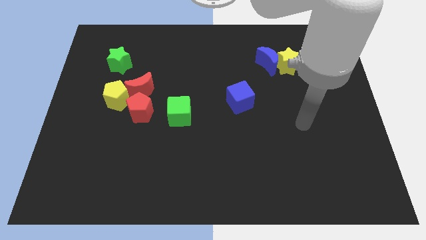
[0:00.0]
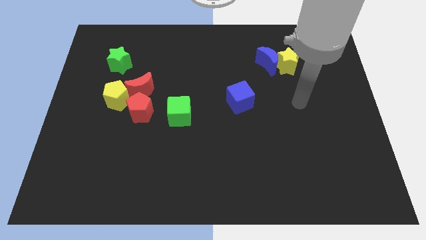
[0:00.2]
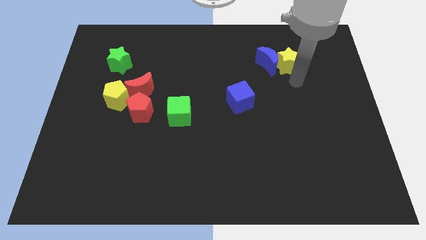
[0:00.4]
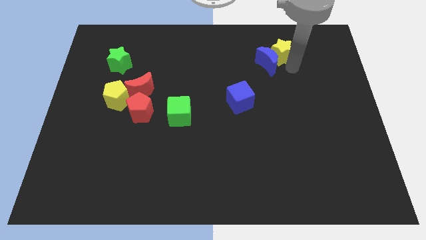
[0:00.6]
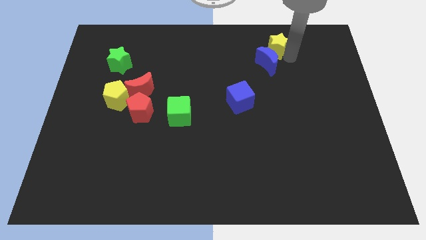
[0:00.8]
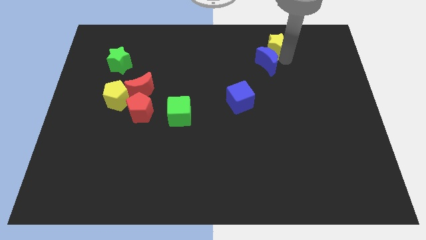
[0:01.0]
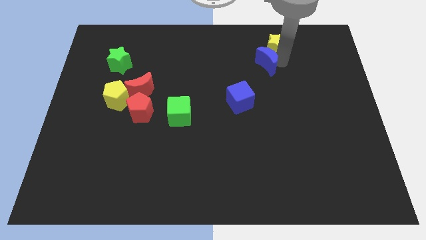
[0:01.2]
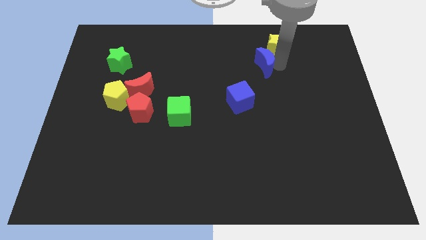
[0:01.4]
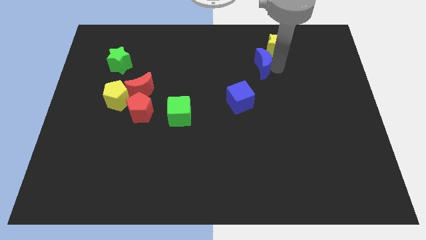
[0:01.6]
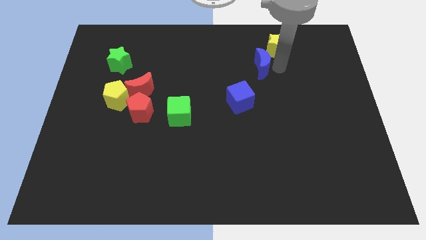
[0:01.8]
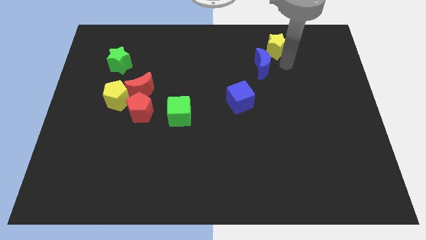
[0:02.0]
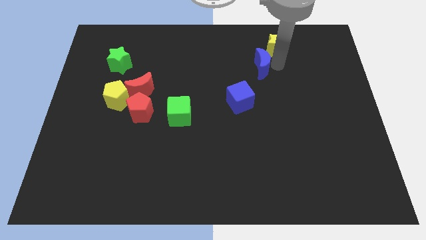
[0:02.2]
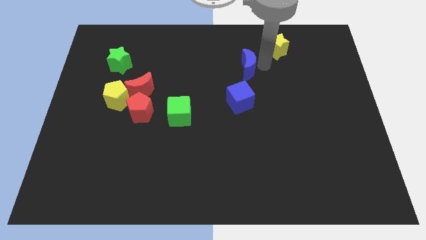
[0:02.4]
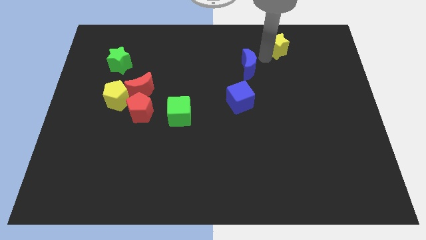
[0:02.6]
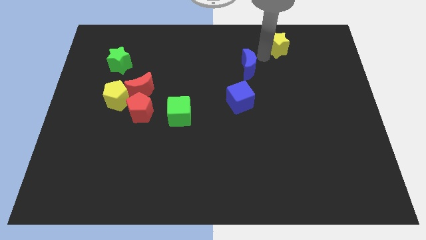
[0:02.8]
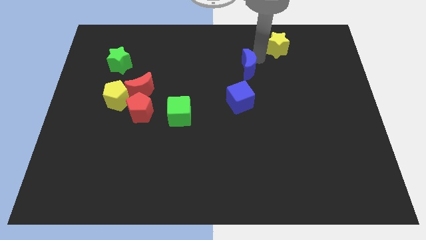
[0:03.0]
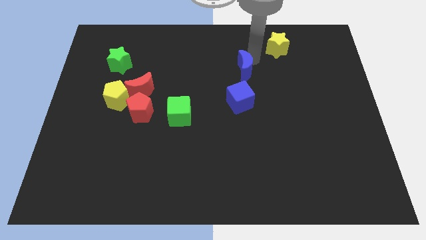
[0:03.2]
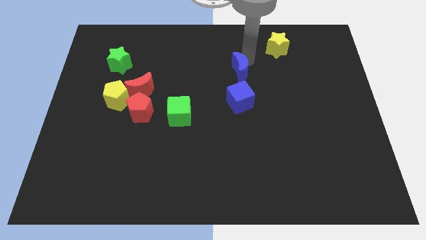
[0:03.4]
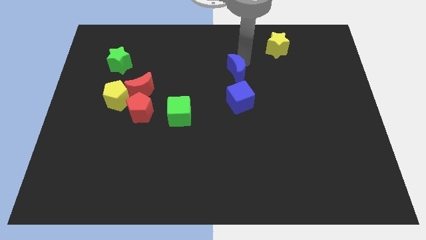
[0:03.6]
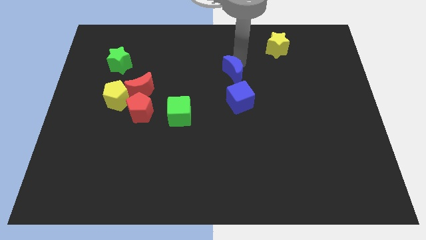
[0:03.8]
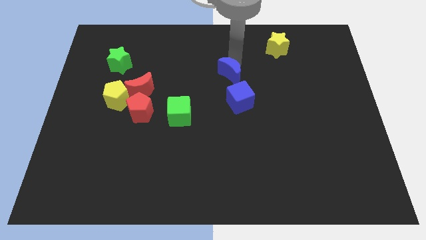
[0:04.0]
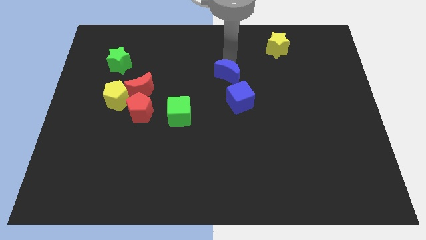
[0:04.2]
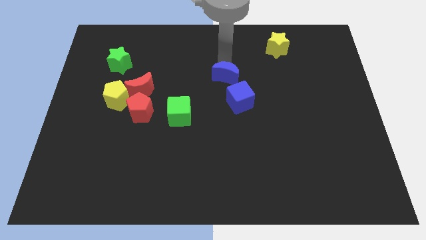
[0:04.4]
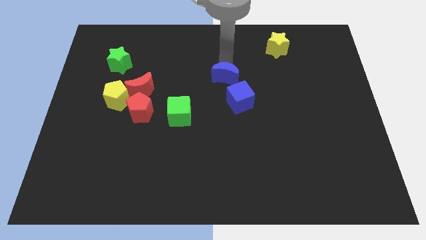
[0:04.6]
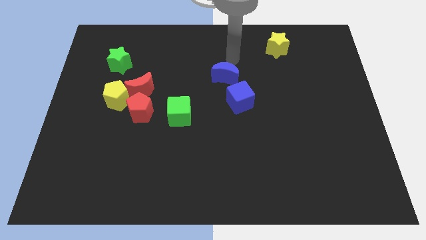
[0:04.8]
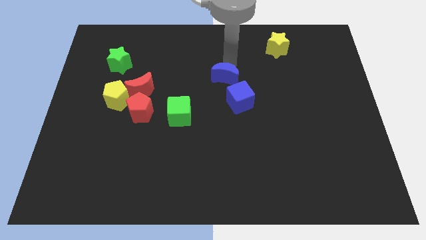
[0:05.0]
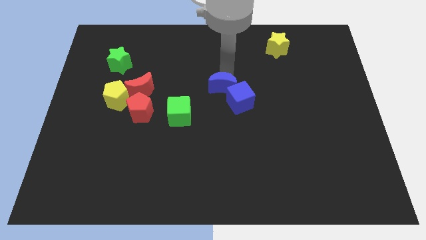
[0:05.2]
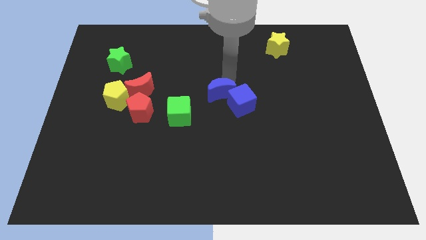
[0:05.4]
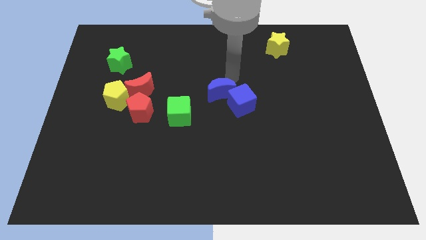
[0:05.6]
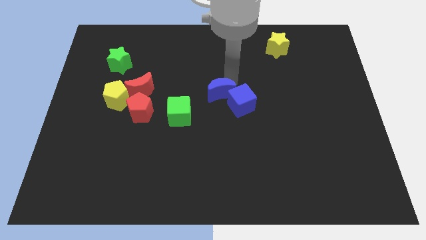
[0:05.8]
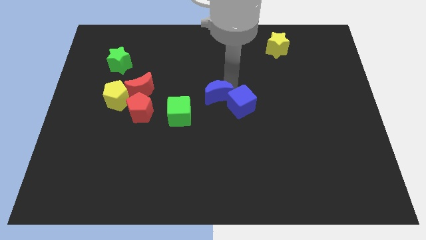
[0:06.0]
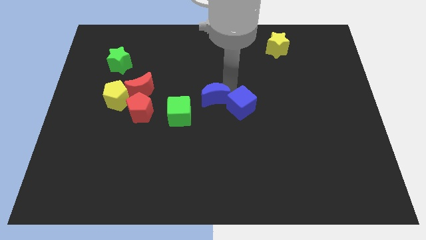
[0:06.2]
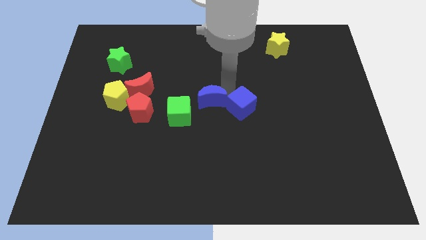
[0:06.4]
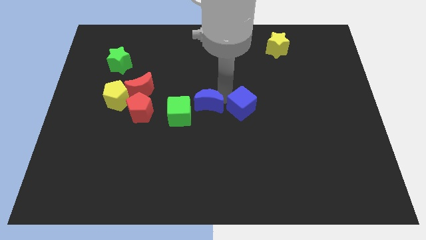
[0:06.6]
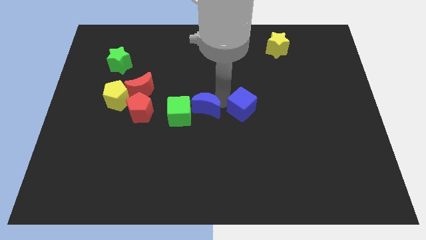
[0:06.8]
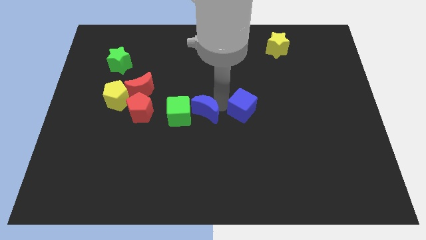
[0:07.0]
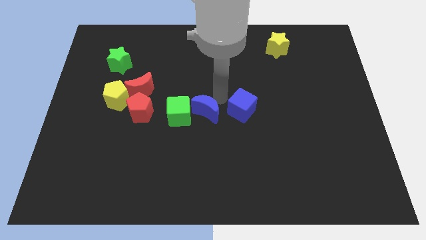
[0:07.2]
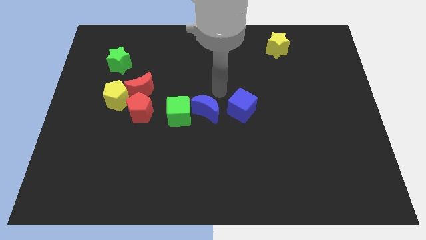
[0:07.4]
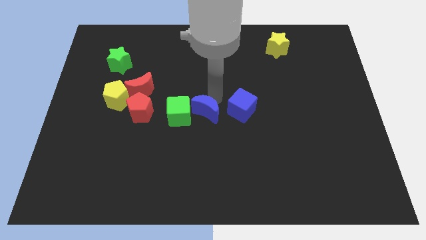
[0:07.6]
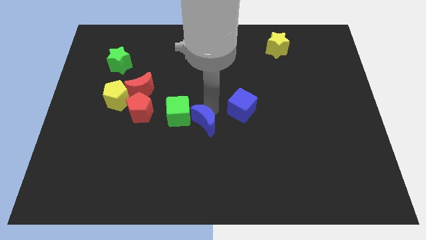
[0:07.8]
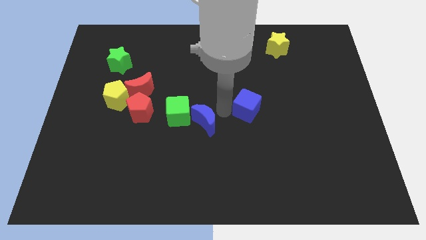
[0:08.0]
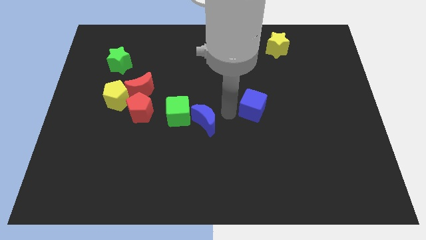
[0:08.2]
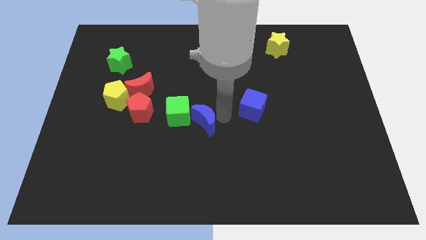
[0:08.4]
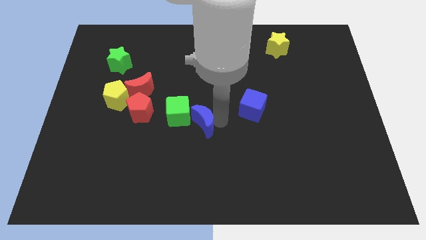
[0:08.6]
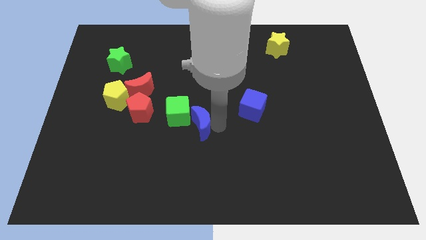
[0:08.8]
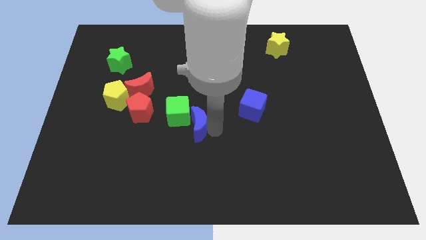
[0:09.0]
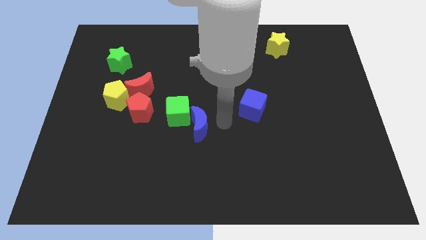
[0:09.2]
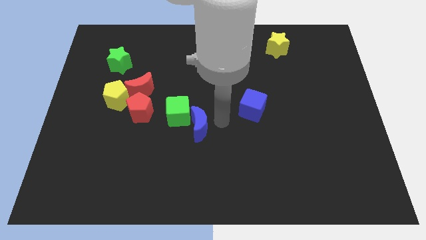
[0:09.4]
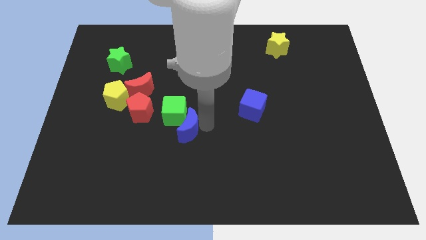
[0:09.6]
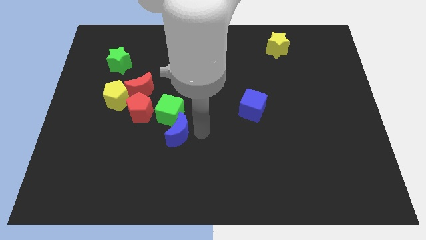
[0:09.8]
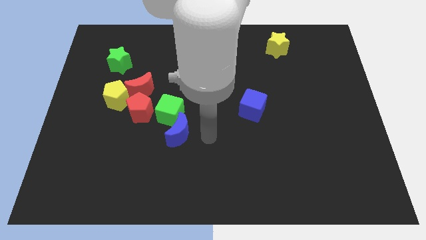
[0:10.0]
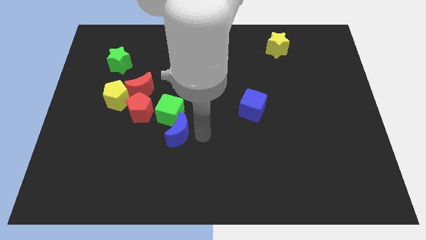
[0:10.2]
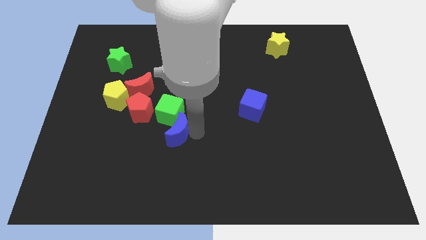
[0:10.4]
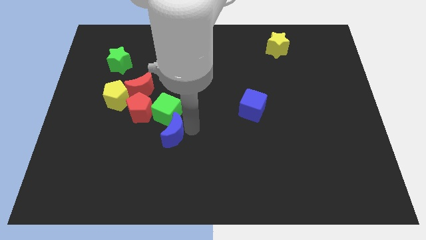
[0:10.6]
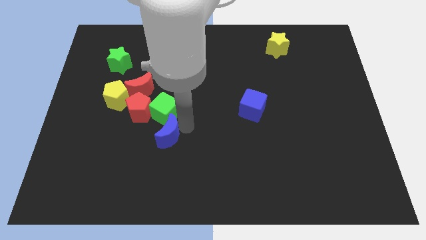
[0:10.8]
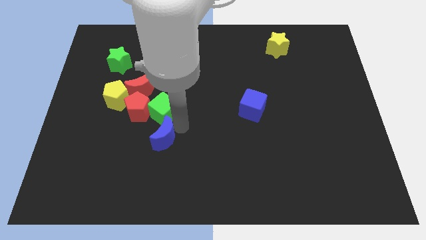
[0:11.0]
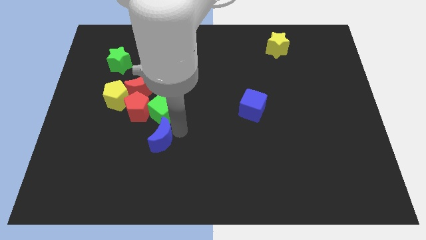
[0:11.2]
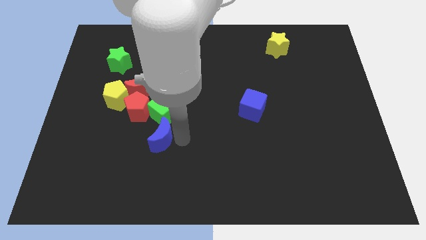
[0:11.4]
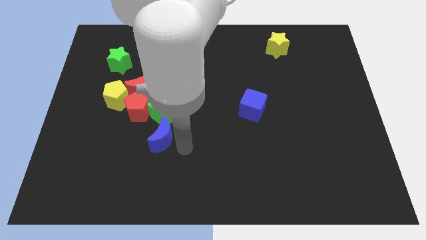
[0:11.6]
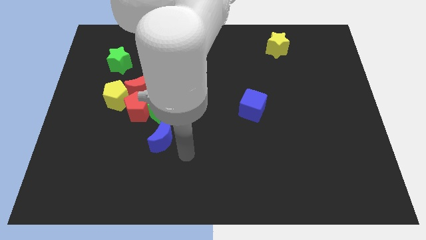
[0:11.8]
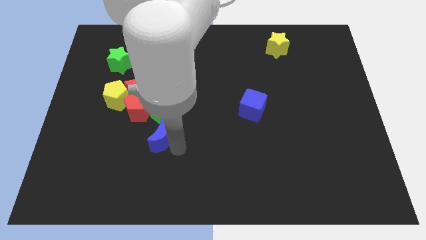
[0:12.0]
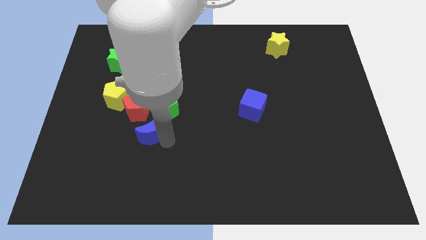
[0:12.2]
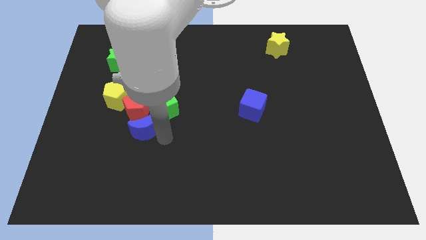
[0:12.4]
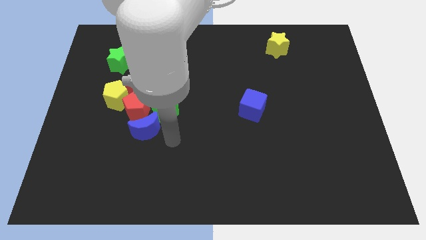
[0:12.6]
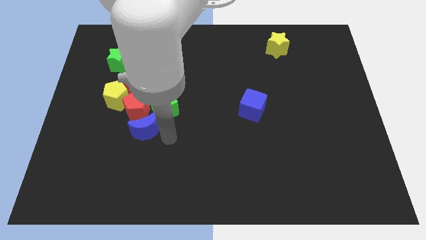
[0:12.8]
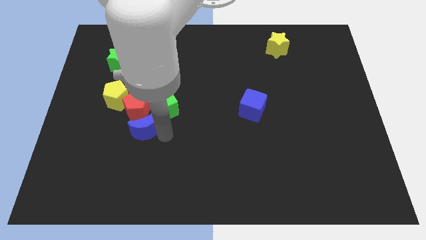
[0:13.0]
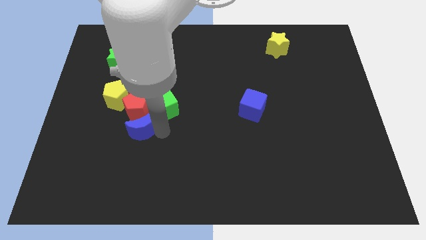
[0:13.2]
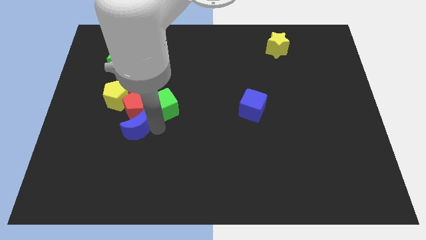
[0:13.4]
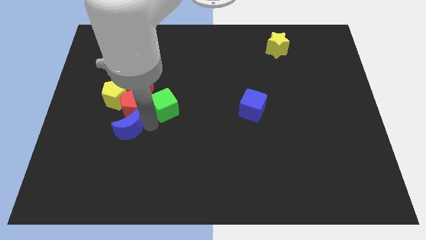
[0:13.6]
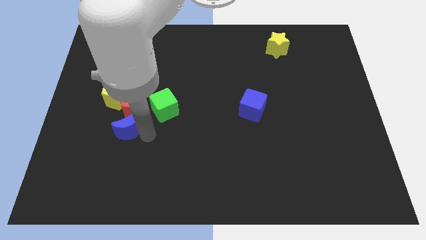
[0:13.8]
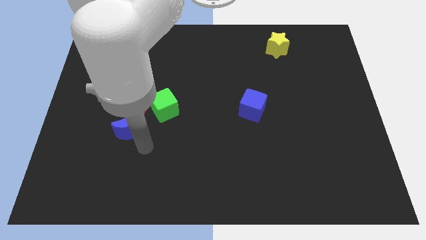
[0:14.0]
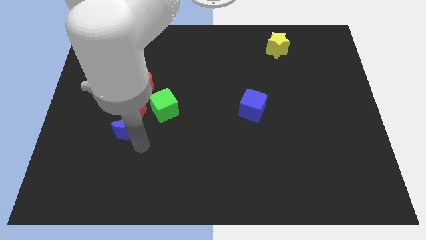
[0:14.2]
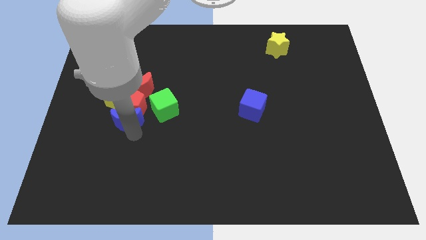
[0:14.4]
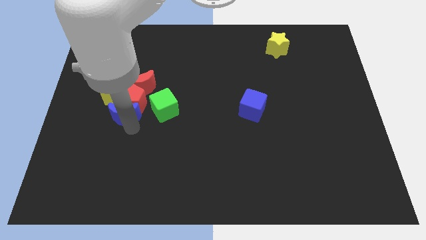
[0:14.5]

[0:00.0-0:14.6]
move the blue moon to the bottom left side of the red moon

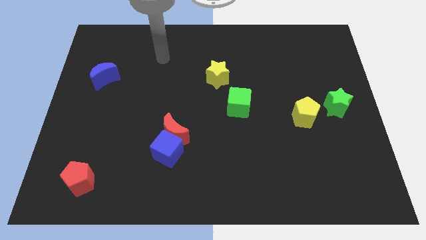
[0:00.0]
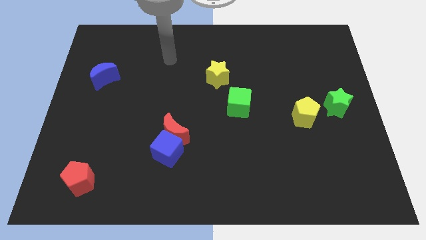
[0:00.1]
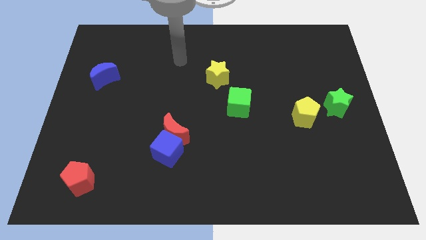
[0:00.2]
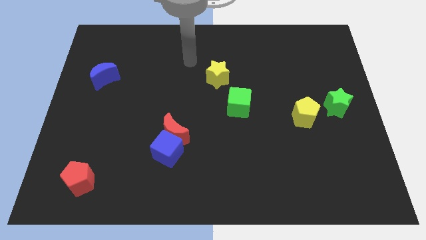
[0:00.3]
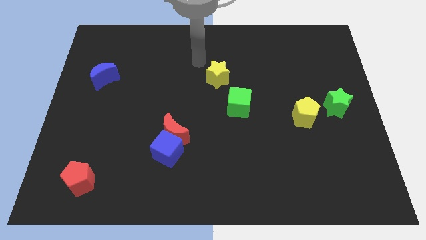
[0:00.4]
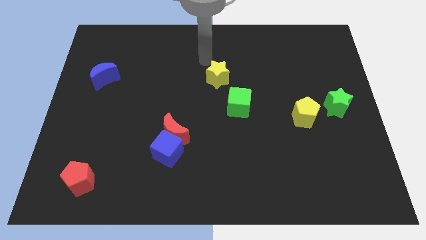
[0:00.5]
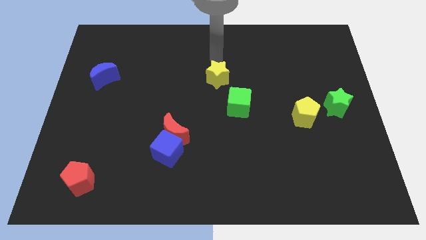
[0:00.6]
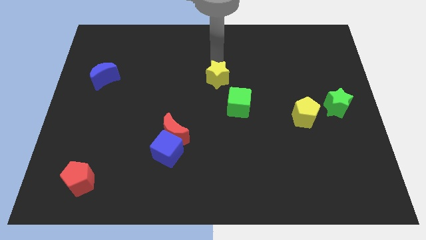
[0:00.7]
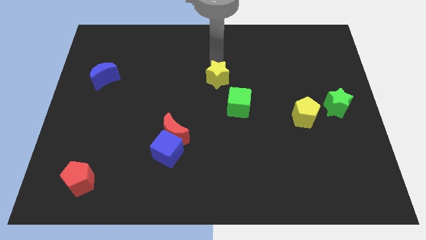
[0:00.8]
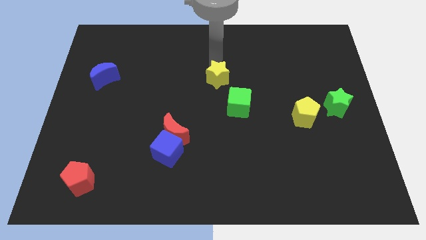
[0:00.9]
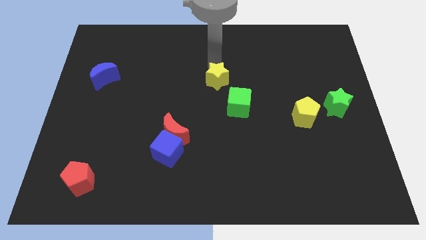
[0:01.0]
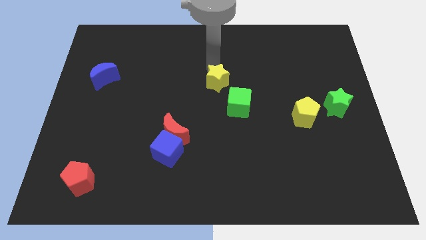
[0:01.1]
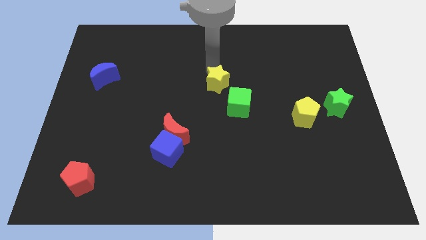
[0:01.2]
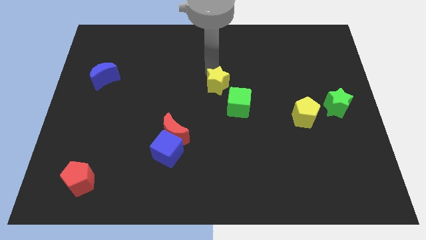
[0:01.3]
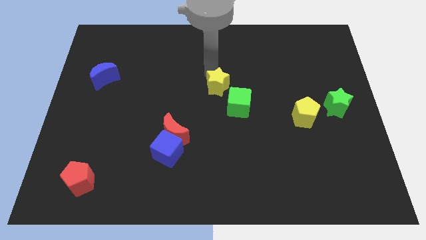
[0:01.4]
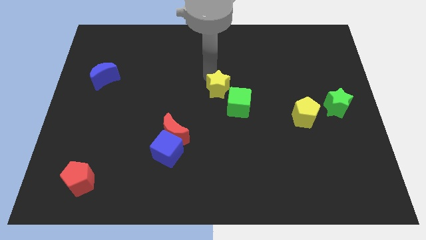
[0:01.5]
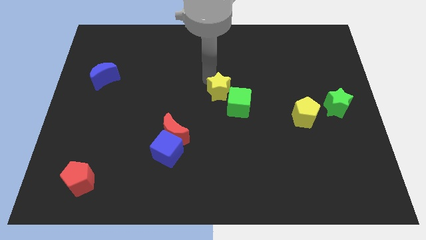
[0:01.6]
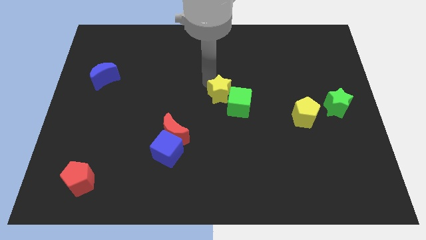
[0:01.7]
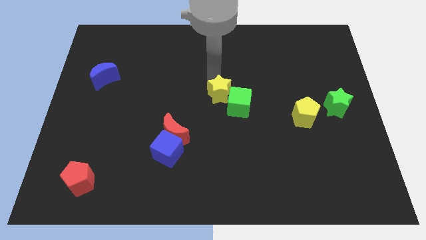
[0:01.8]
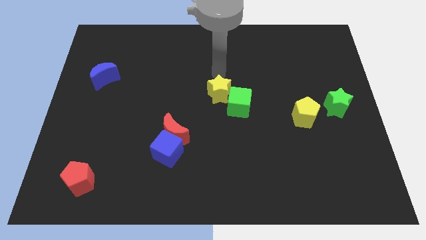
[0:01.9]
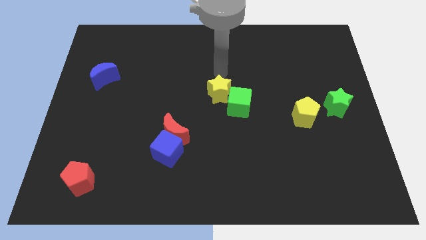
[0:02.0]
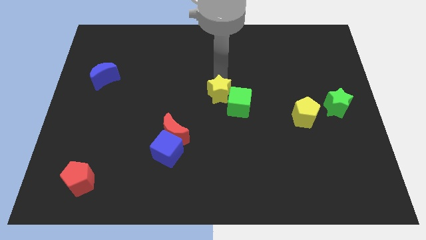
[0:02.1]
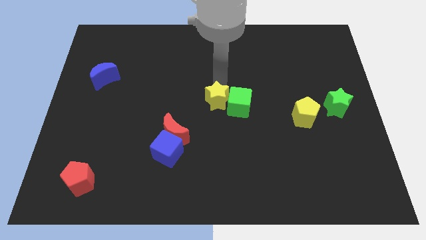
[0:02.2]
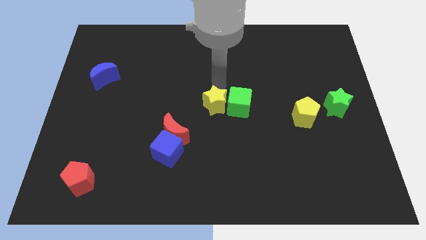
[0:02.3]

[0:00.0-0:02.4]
put the yellow star to the bottom left of the green cube
